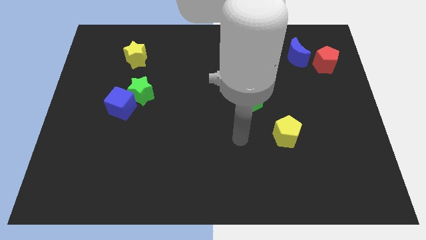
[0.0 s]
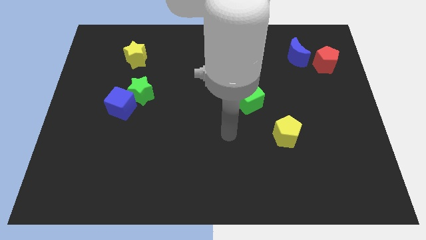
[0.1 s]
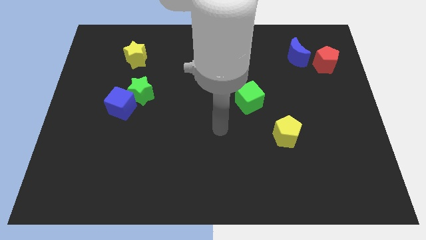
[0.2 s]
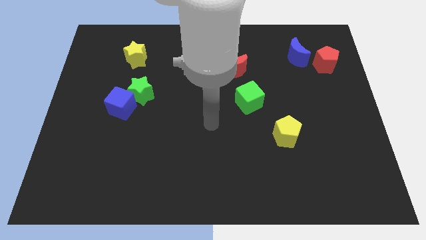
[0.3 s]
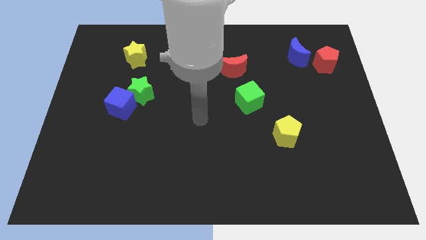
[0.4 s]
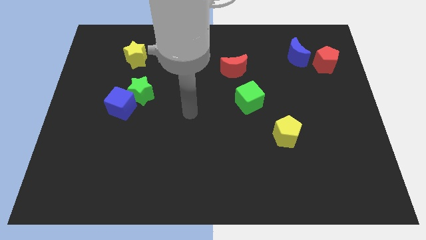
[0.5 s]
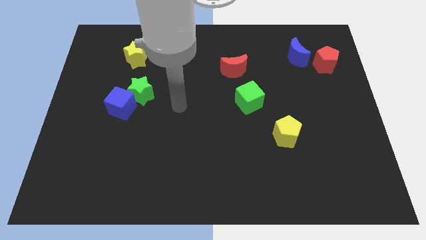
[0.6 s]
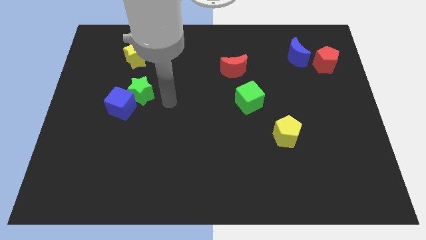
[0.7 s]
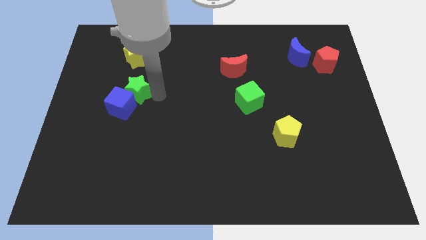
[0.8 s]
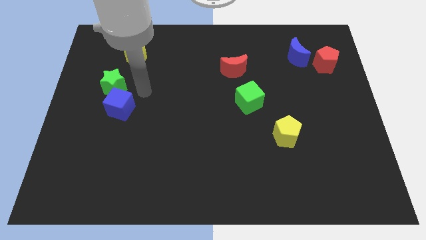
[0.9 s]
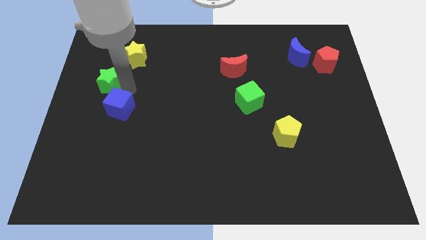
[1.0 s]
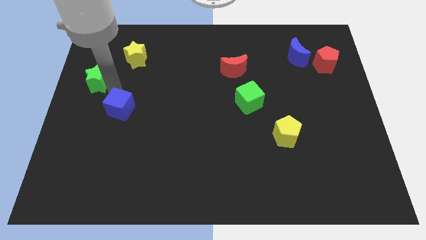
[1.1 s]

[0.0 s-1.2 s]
pull the blue cube apart from the green star

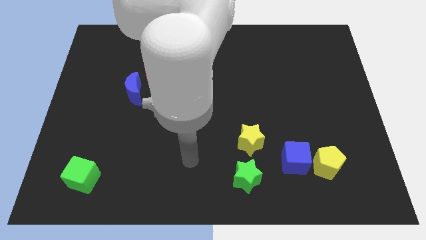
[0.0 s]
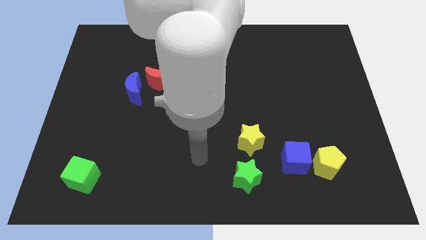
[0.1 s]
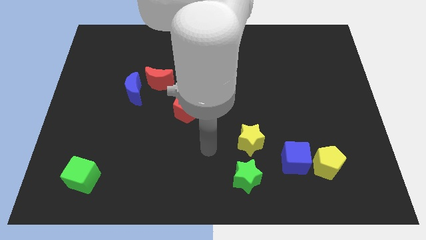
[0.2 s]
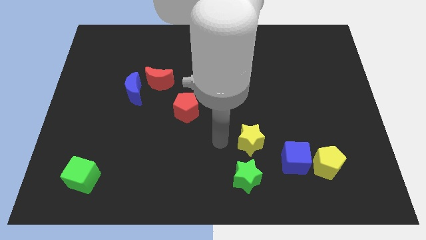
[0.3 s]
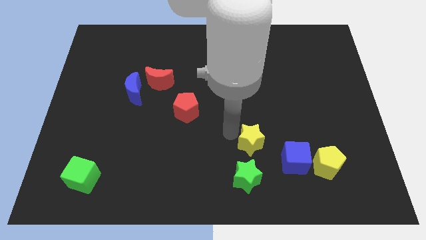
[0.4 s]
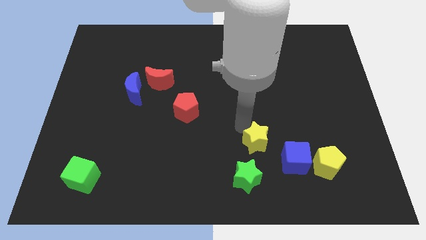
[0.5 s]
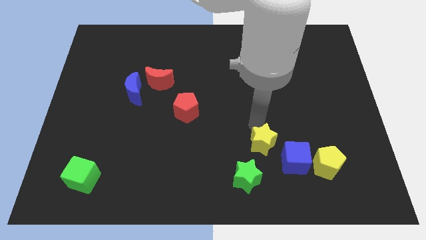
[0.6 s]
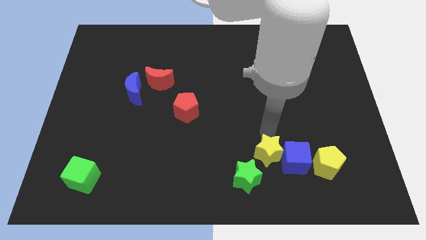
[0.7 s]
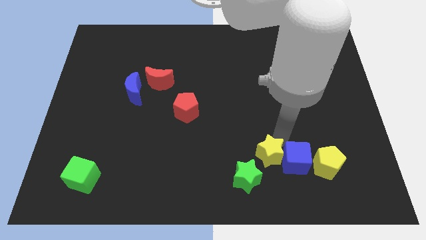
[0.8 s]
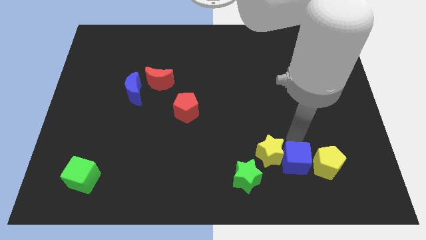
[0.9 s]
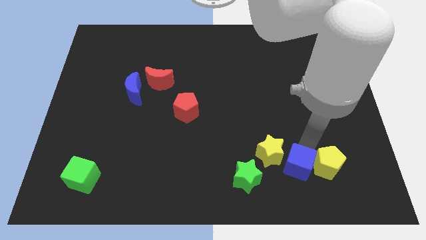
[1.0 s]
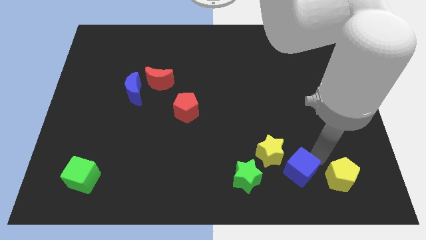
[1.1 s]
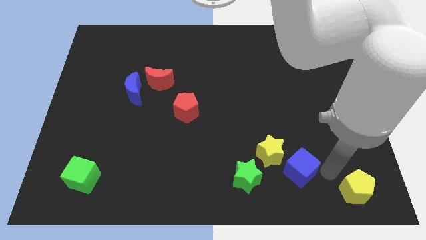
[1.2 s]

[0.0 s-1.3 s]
separate the blue cube from the yellow pentagon

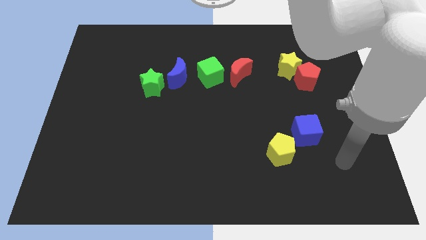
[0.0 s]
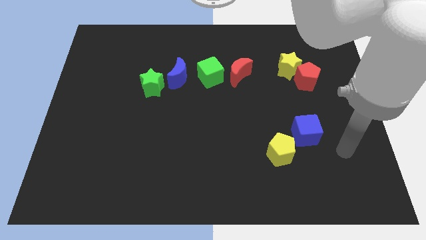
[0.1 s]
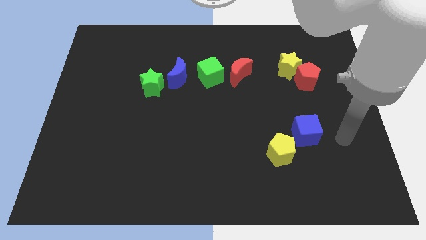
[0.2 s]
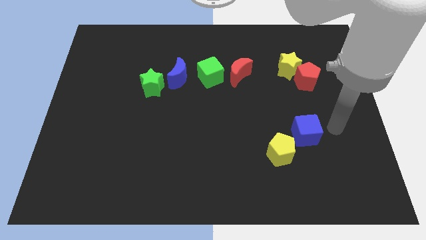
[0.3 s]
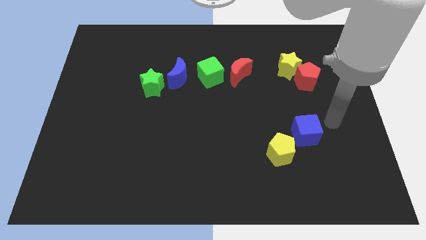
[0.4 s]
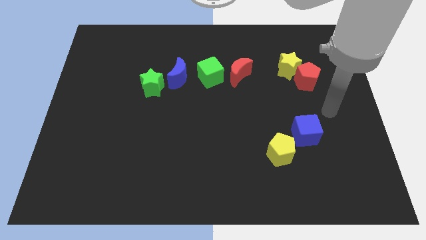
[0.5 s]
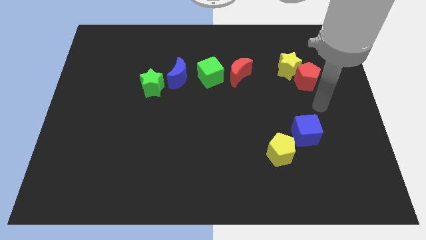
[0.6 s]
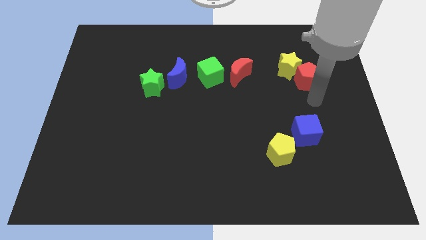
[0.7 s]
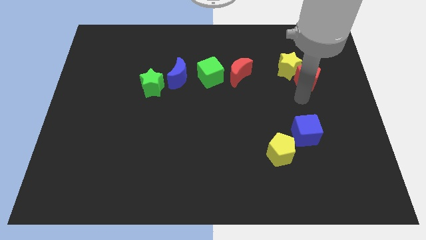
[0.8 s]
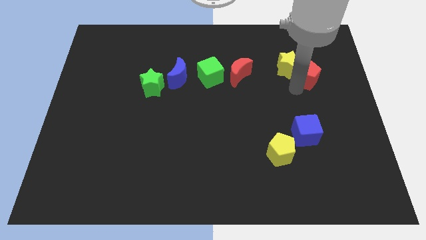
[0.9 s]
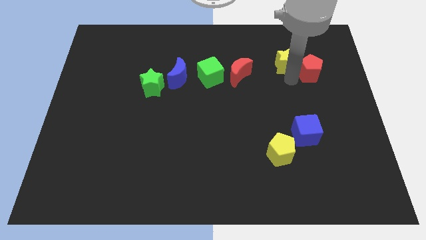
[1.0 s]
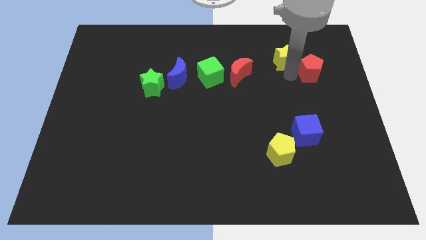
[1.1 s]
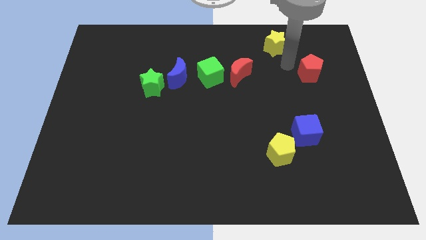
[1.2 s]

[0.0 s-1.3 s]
move the red pentagon away from the yellow star

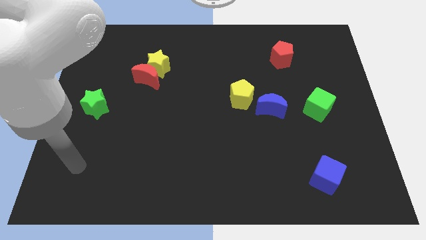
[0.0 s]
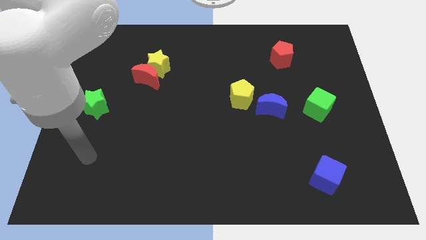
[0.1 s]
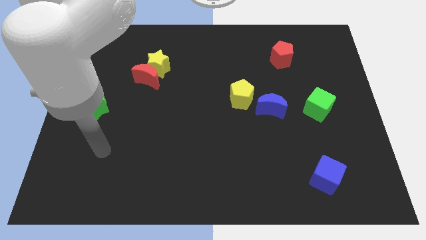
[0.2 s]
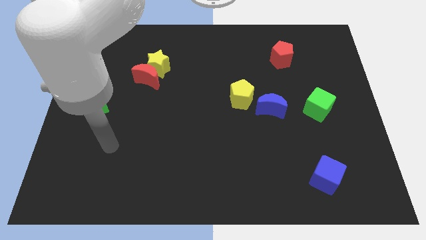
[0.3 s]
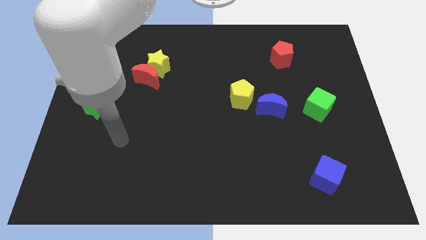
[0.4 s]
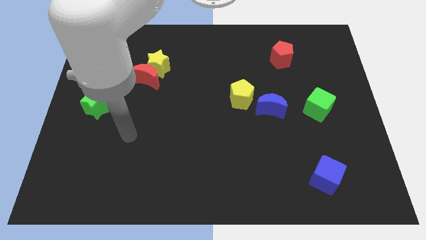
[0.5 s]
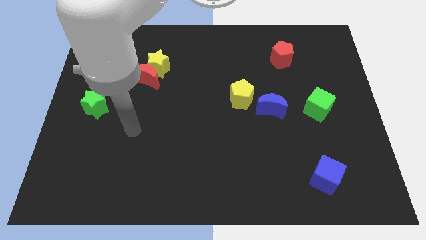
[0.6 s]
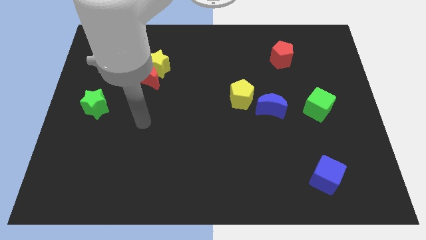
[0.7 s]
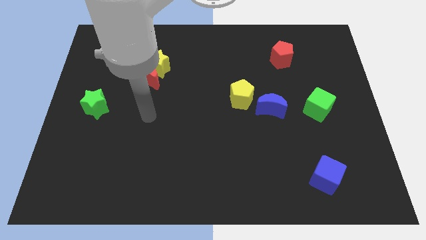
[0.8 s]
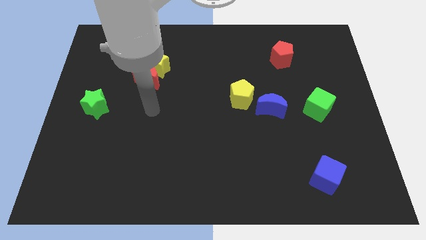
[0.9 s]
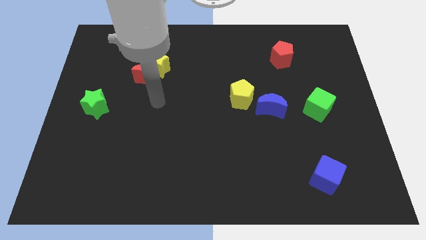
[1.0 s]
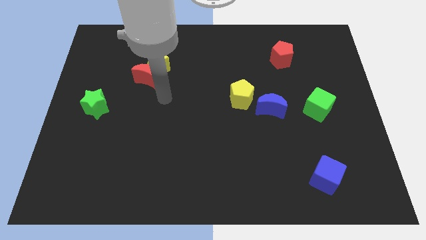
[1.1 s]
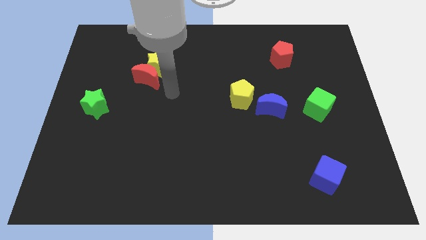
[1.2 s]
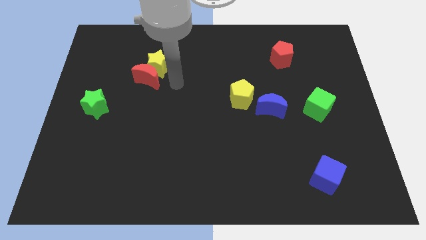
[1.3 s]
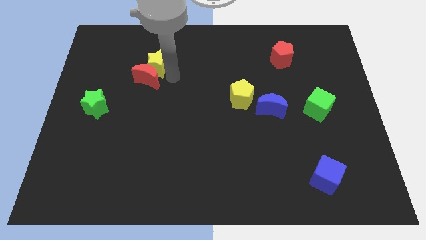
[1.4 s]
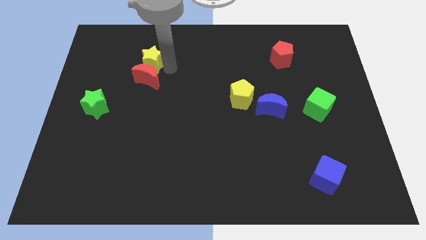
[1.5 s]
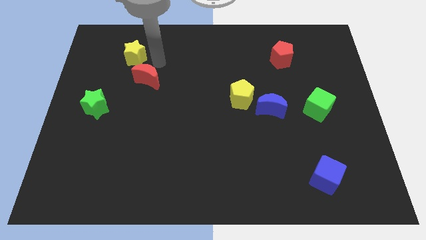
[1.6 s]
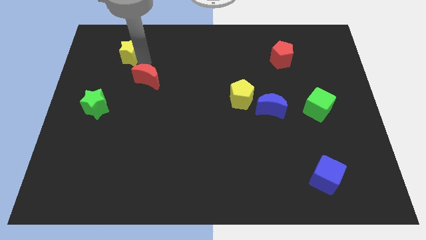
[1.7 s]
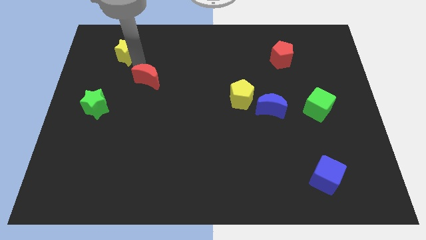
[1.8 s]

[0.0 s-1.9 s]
separate the red moon from the yellow star

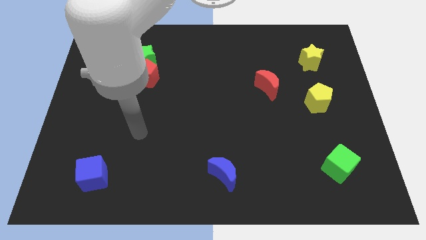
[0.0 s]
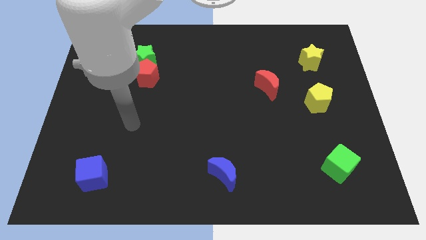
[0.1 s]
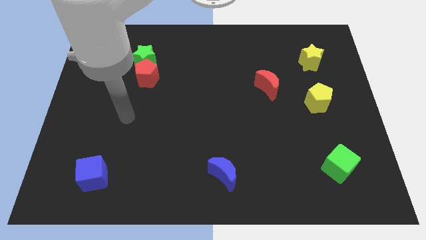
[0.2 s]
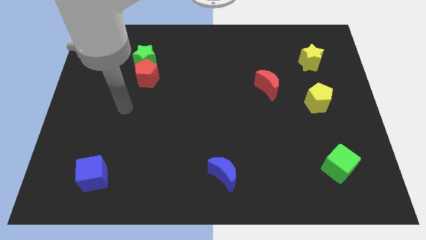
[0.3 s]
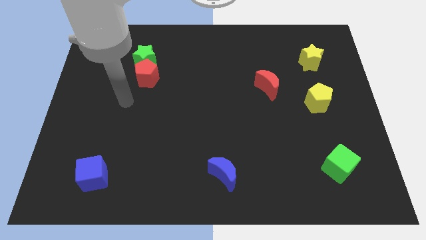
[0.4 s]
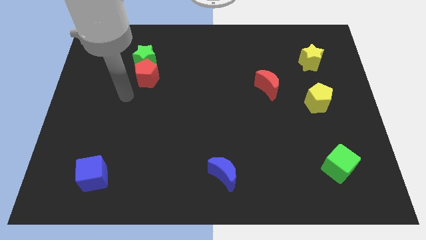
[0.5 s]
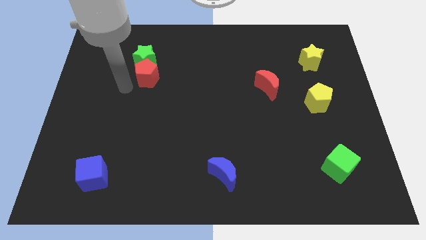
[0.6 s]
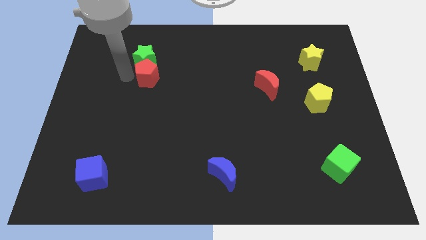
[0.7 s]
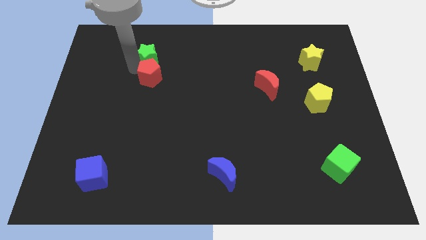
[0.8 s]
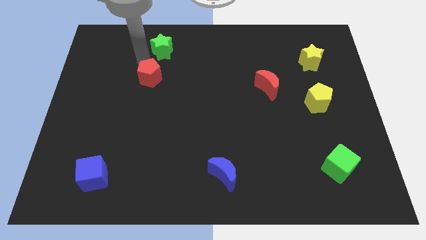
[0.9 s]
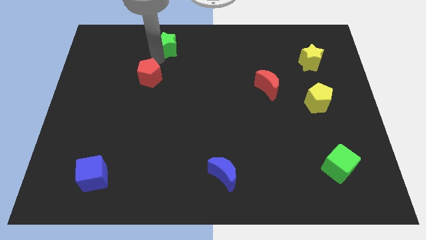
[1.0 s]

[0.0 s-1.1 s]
pull the red pentagon apart from the green star

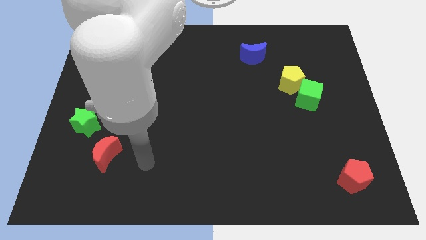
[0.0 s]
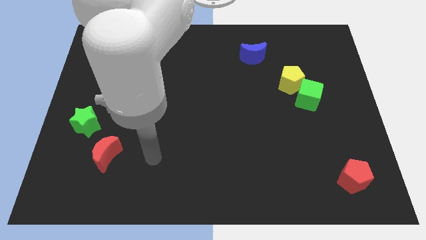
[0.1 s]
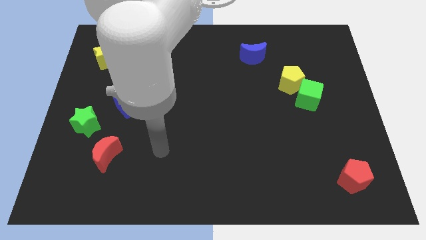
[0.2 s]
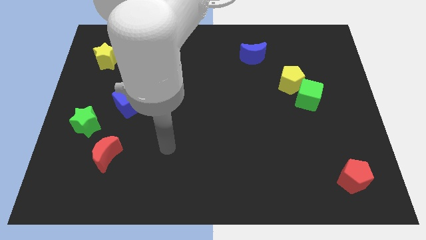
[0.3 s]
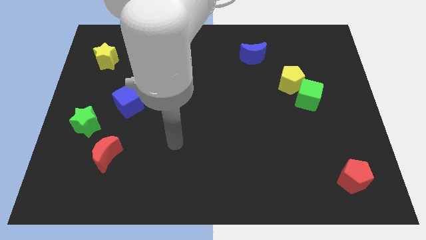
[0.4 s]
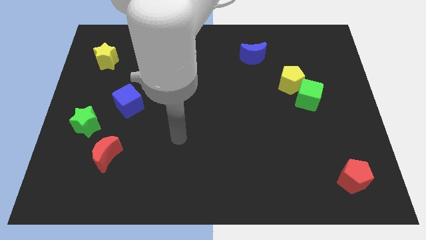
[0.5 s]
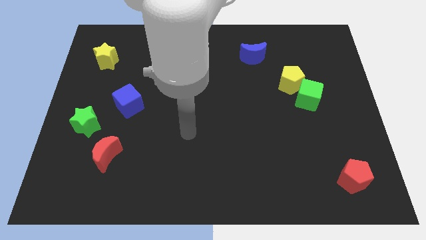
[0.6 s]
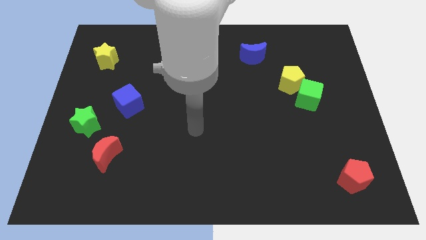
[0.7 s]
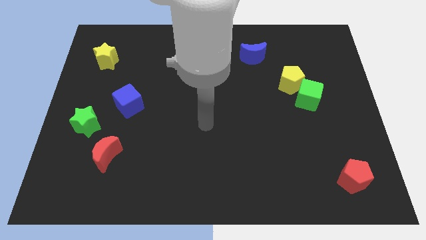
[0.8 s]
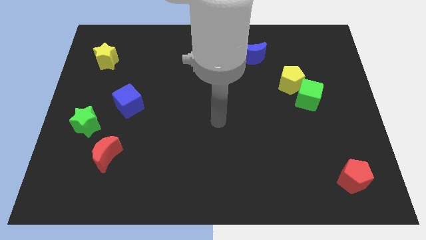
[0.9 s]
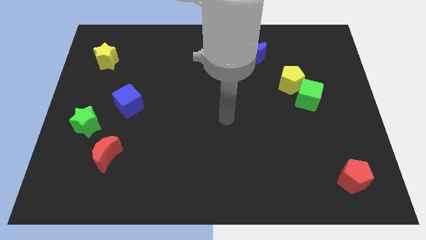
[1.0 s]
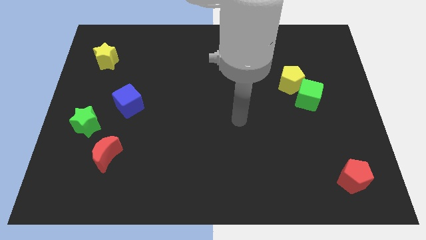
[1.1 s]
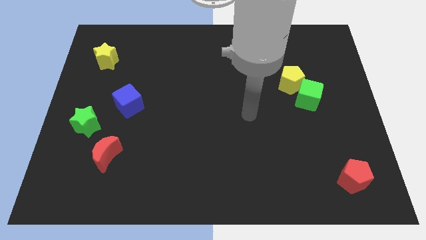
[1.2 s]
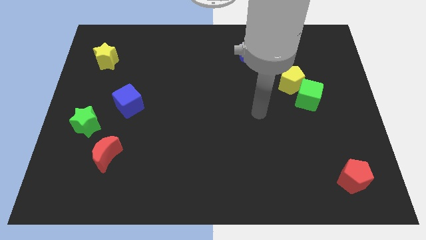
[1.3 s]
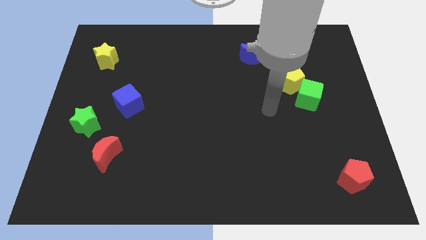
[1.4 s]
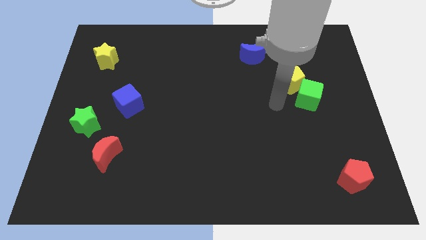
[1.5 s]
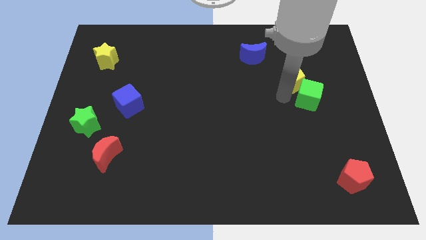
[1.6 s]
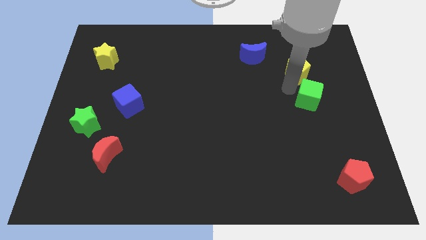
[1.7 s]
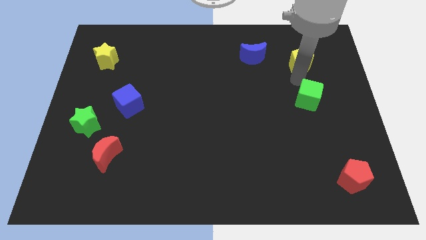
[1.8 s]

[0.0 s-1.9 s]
separate the green cube from the yellow pentagon

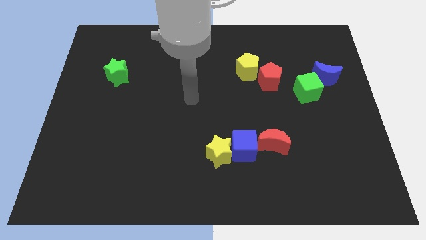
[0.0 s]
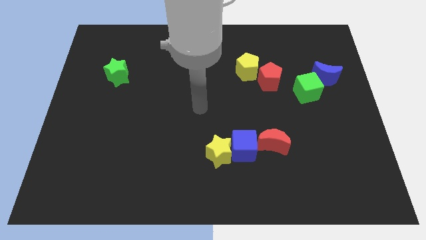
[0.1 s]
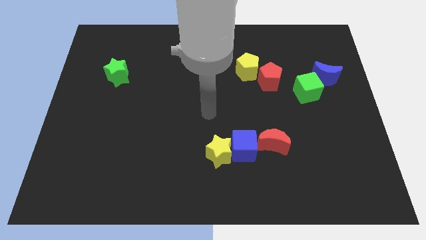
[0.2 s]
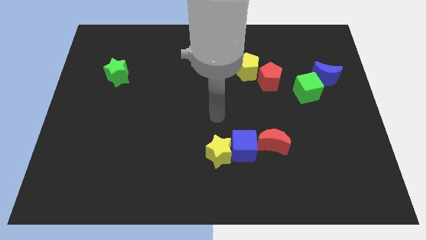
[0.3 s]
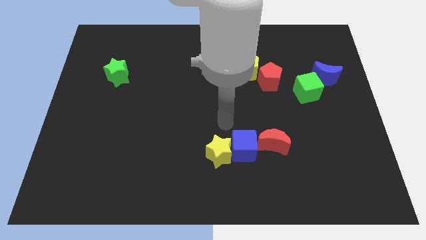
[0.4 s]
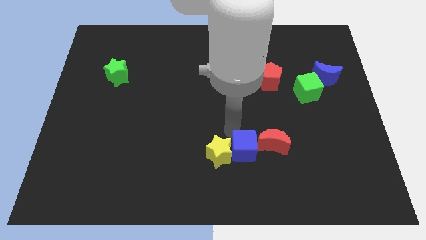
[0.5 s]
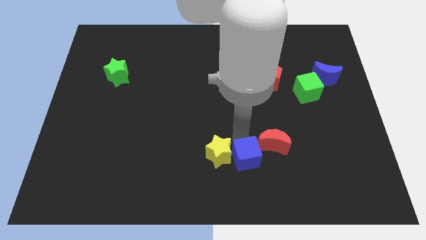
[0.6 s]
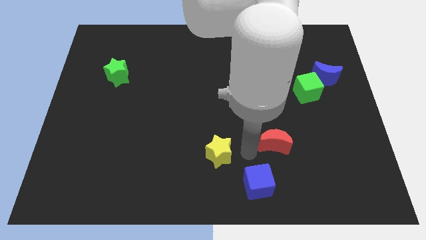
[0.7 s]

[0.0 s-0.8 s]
separate the yellow star from the blue cube
